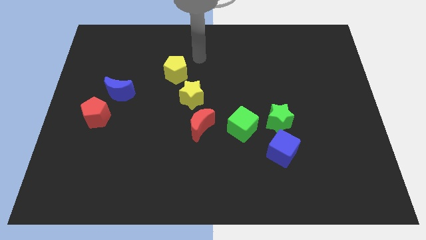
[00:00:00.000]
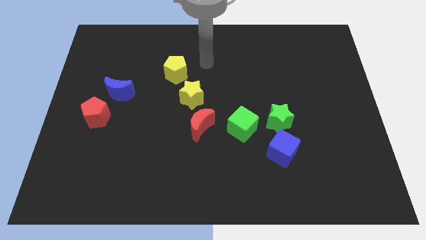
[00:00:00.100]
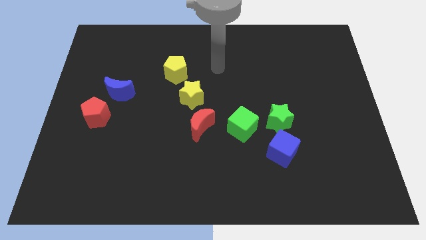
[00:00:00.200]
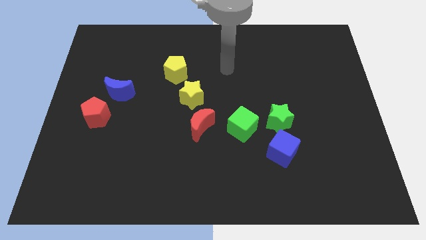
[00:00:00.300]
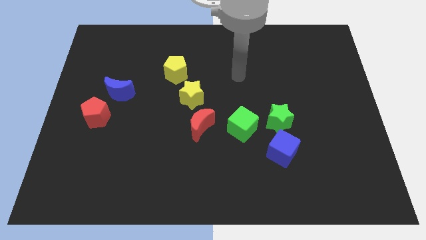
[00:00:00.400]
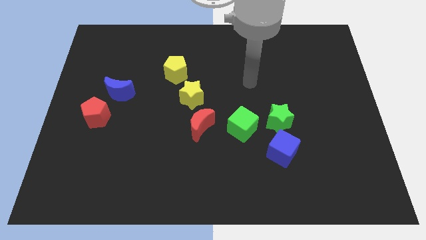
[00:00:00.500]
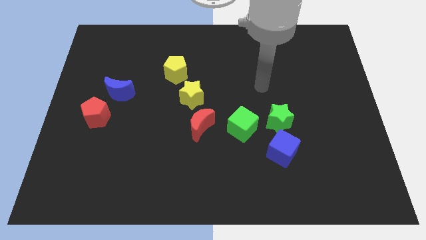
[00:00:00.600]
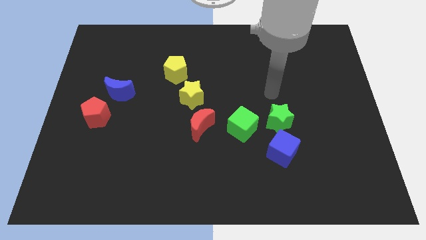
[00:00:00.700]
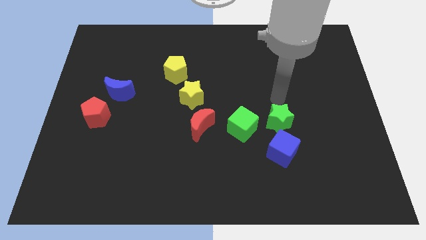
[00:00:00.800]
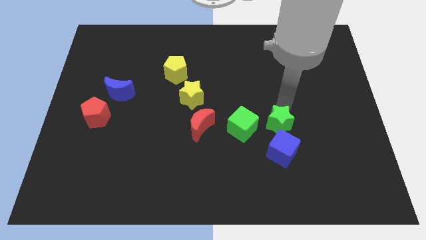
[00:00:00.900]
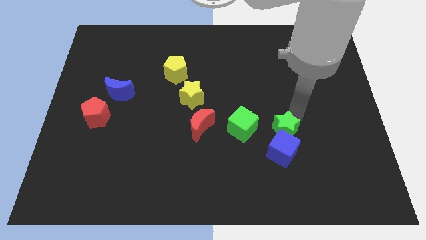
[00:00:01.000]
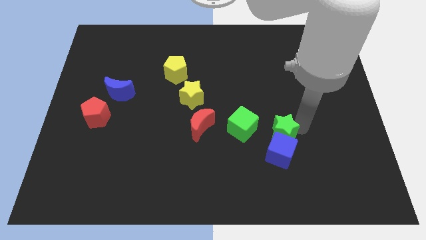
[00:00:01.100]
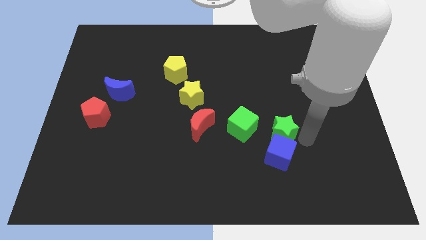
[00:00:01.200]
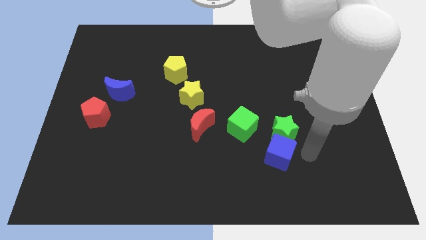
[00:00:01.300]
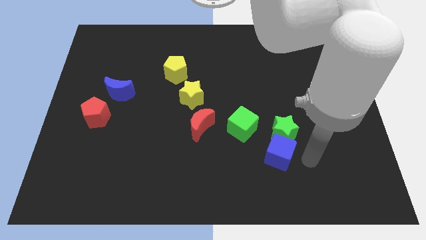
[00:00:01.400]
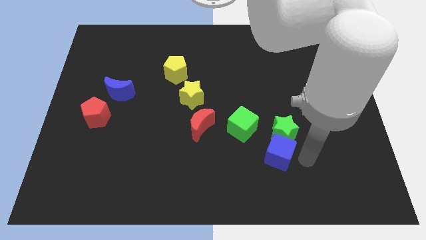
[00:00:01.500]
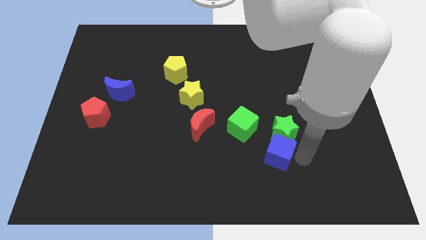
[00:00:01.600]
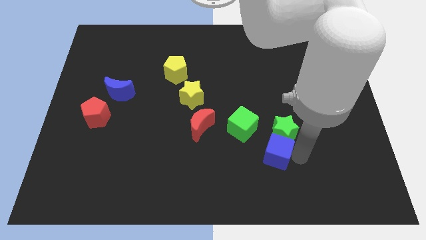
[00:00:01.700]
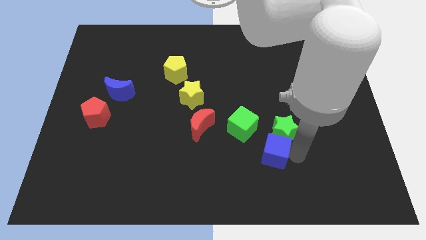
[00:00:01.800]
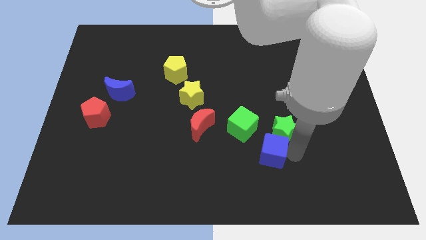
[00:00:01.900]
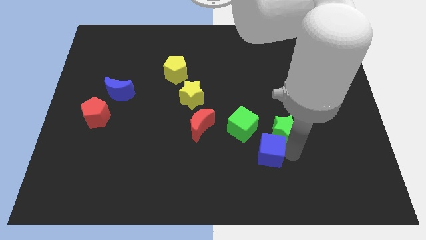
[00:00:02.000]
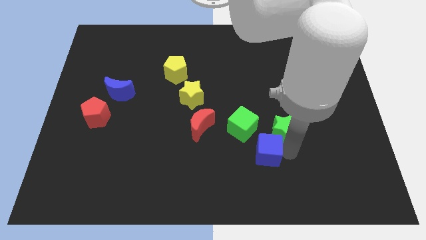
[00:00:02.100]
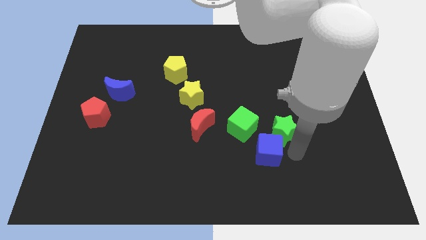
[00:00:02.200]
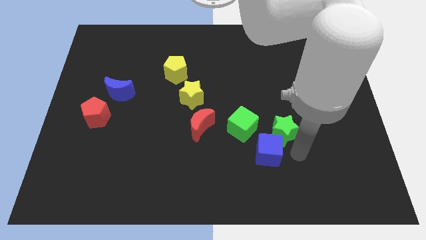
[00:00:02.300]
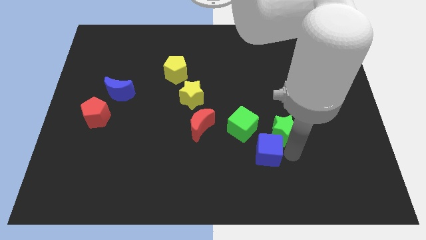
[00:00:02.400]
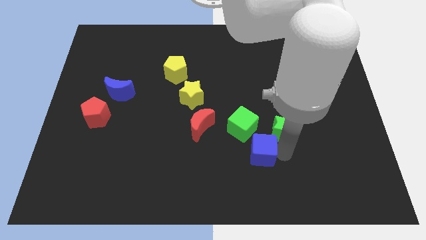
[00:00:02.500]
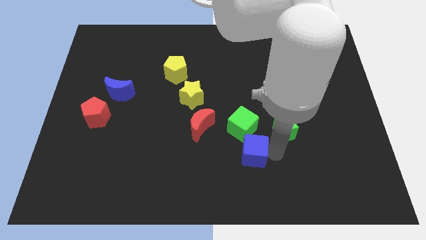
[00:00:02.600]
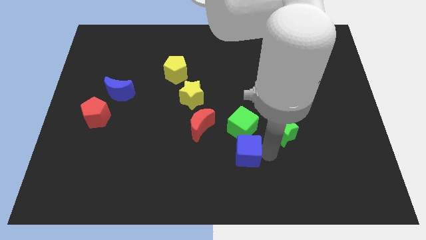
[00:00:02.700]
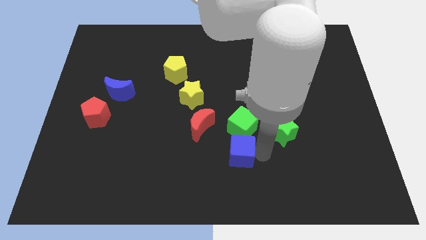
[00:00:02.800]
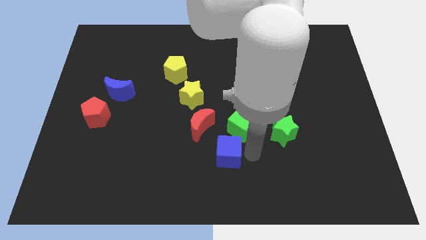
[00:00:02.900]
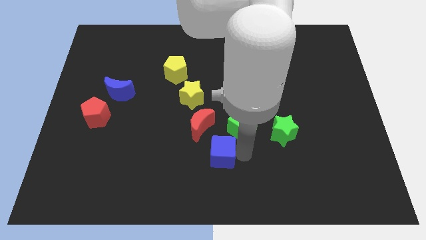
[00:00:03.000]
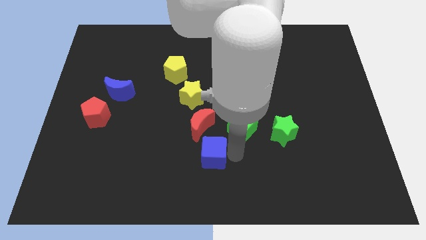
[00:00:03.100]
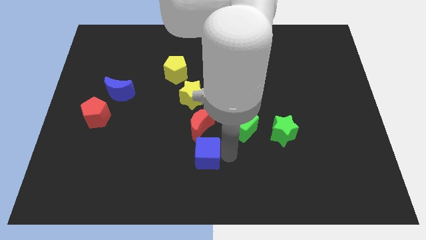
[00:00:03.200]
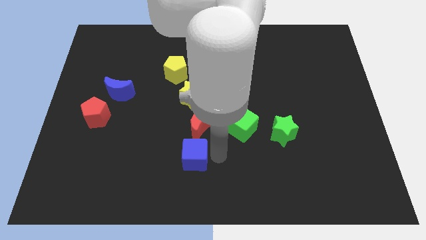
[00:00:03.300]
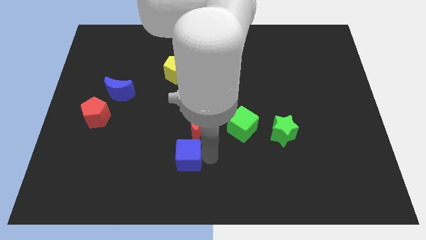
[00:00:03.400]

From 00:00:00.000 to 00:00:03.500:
move the blue cube to the left

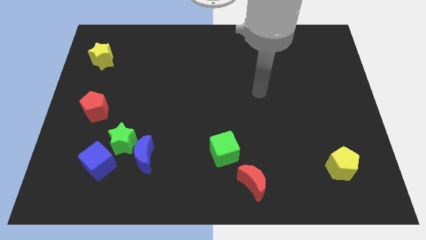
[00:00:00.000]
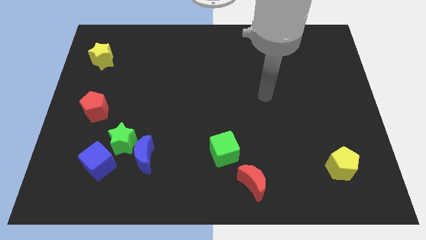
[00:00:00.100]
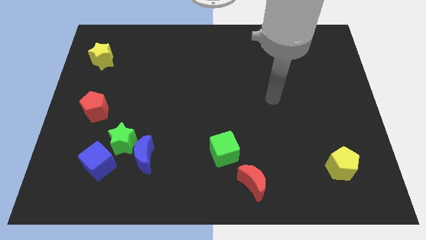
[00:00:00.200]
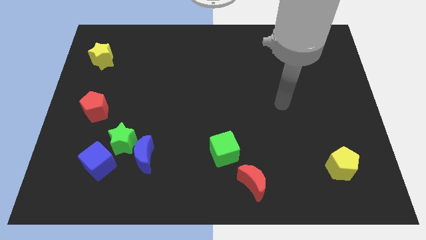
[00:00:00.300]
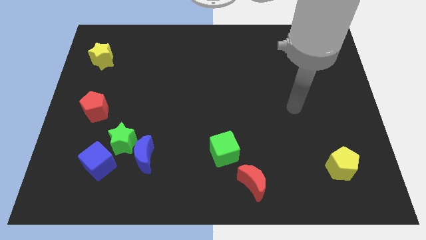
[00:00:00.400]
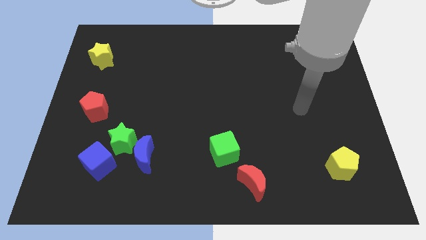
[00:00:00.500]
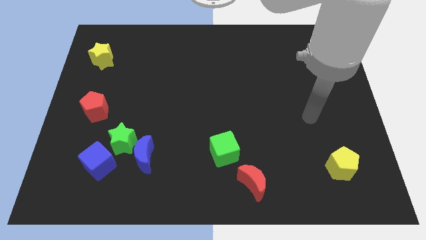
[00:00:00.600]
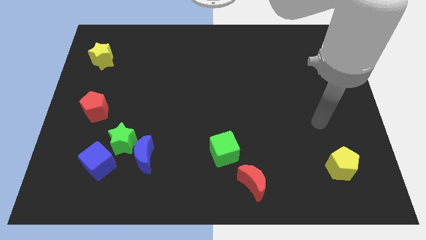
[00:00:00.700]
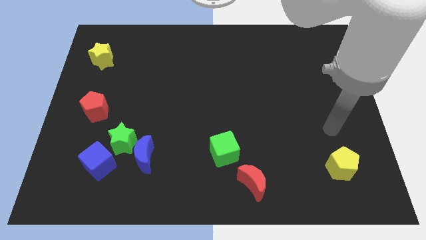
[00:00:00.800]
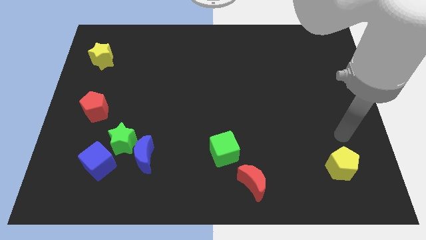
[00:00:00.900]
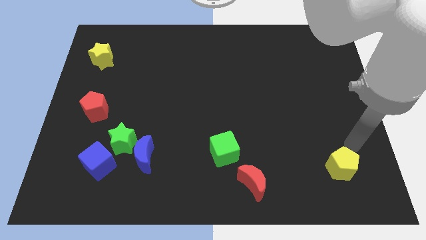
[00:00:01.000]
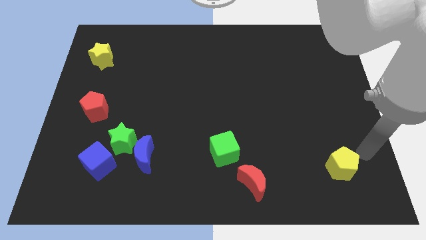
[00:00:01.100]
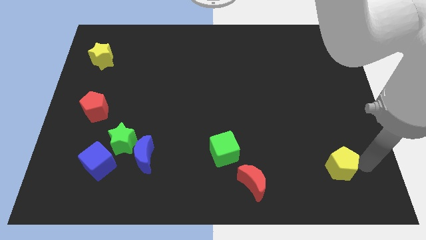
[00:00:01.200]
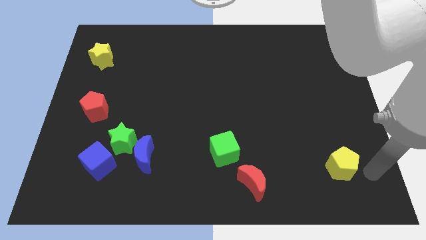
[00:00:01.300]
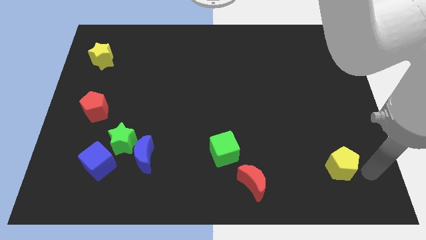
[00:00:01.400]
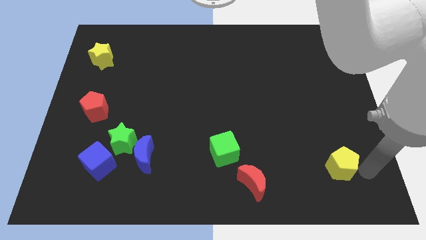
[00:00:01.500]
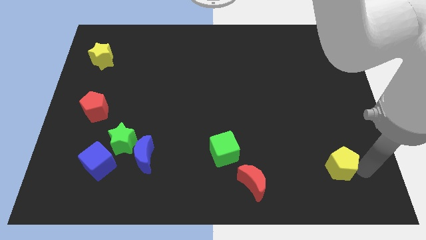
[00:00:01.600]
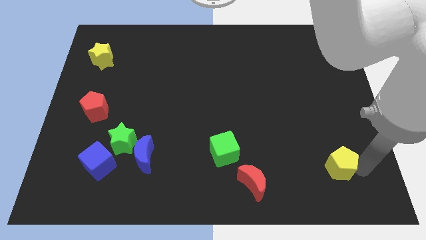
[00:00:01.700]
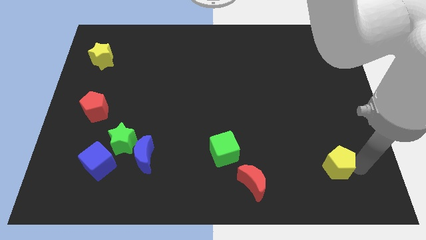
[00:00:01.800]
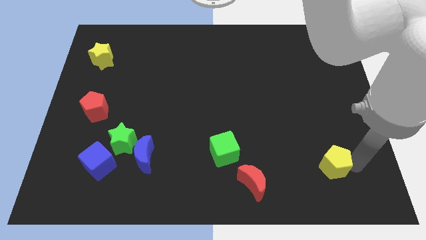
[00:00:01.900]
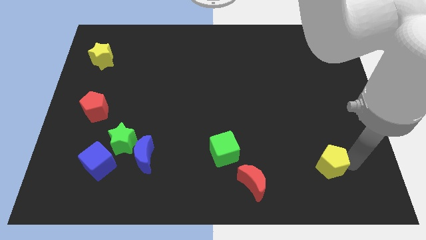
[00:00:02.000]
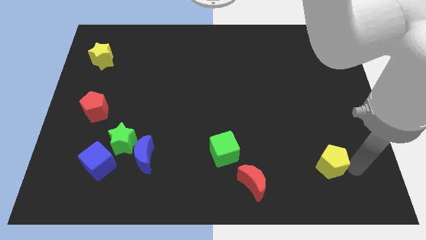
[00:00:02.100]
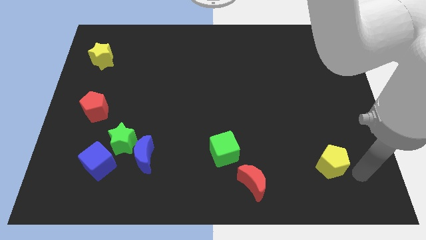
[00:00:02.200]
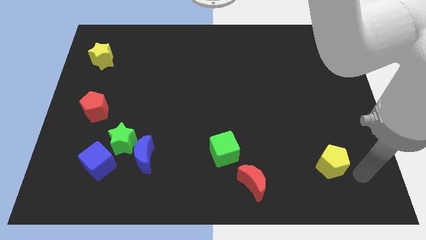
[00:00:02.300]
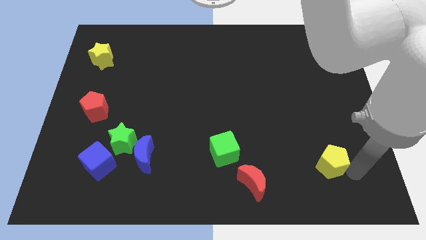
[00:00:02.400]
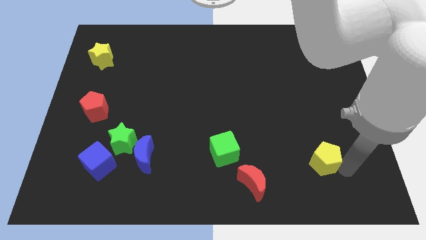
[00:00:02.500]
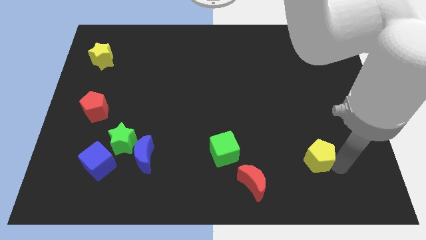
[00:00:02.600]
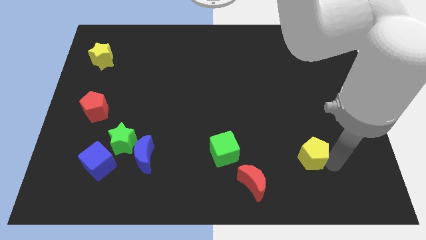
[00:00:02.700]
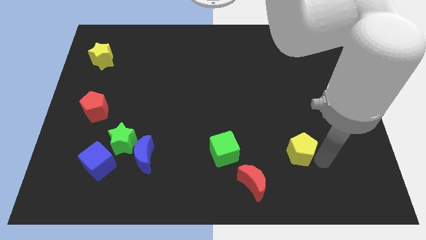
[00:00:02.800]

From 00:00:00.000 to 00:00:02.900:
move the yellow pentagon diagonally up and to the left a little

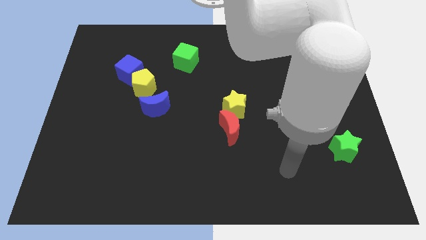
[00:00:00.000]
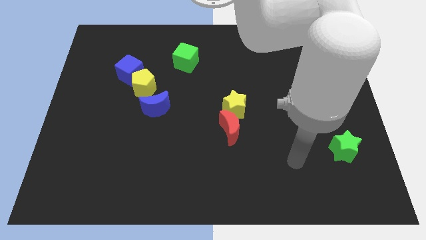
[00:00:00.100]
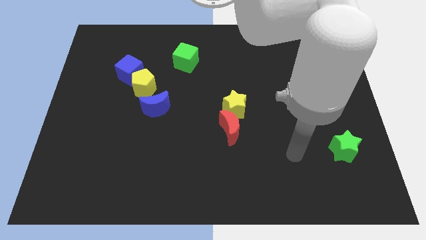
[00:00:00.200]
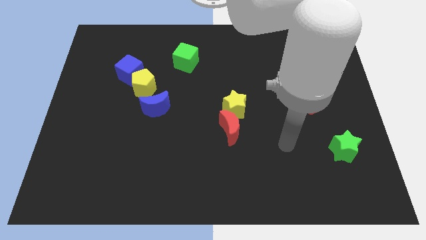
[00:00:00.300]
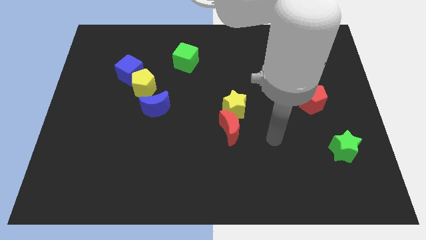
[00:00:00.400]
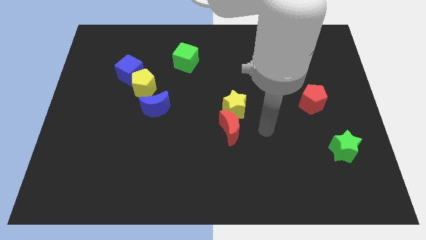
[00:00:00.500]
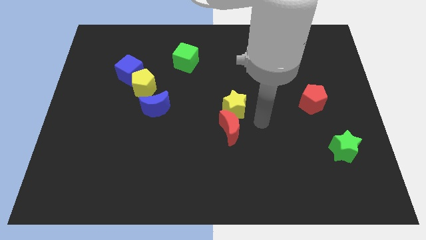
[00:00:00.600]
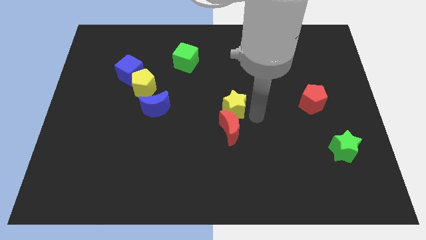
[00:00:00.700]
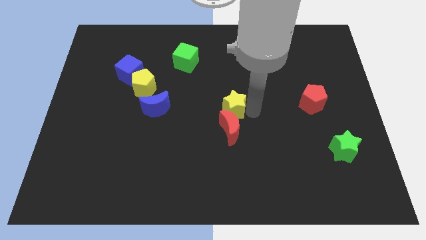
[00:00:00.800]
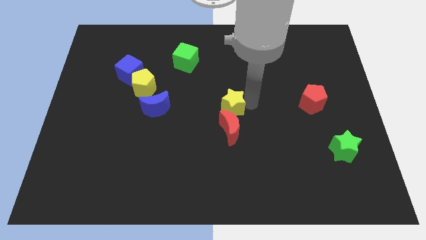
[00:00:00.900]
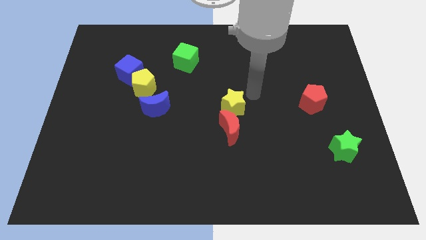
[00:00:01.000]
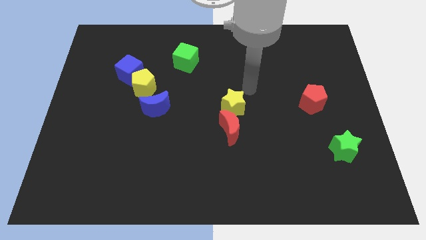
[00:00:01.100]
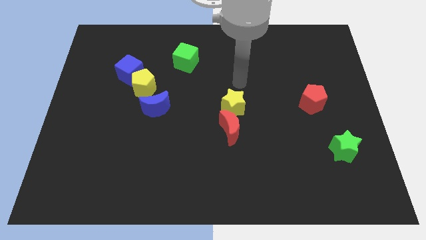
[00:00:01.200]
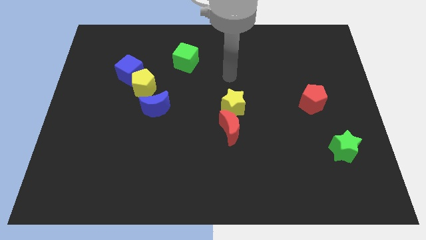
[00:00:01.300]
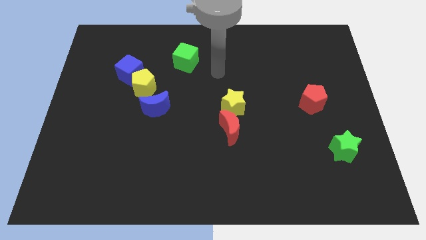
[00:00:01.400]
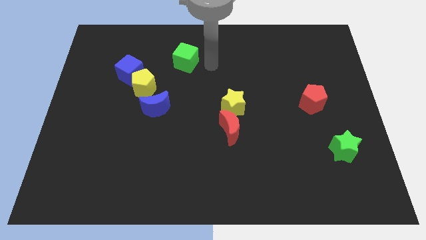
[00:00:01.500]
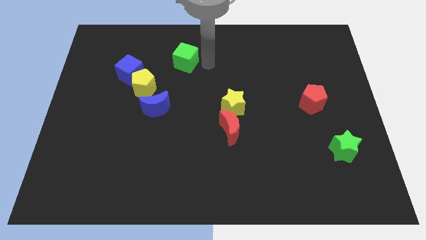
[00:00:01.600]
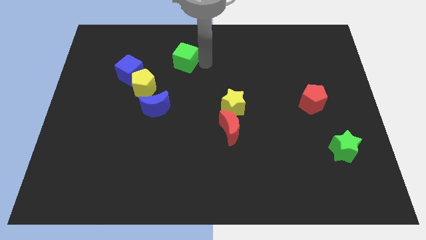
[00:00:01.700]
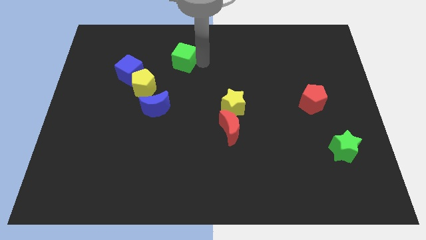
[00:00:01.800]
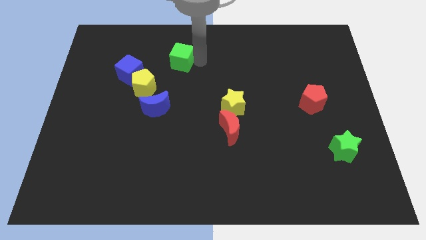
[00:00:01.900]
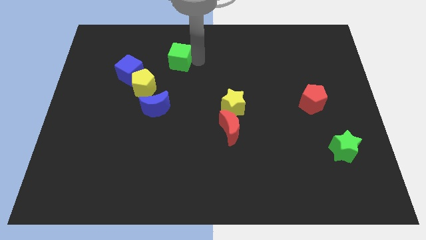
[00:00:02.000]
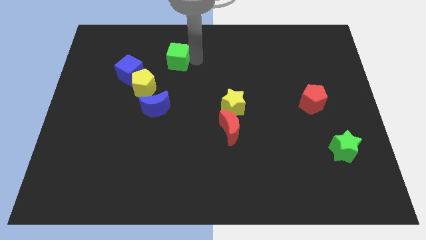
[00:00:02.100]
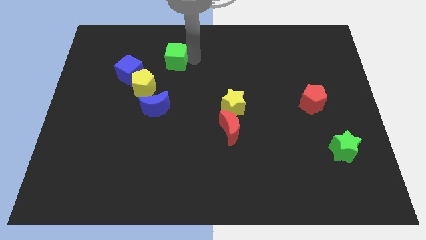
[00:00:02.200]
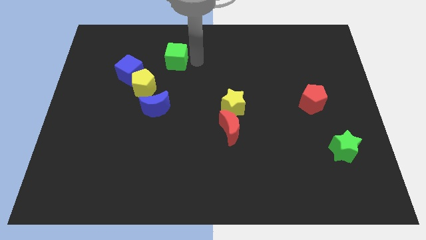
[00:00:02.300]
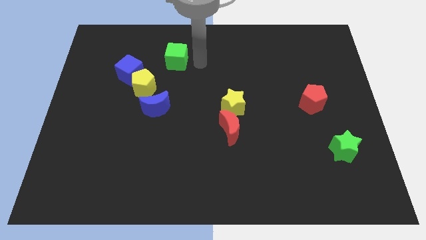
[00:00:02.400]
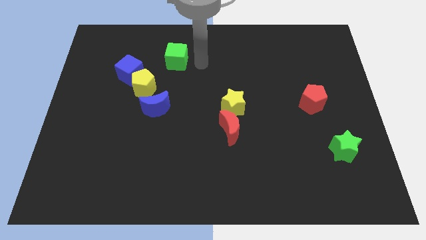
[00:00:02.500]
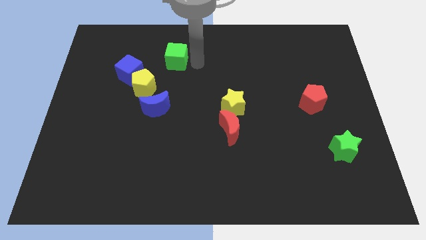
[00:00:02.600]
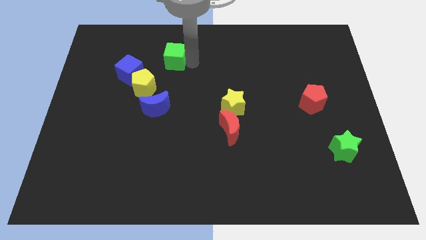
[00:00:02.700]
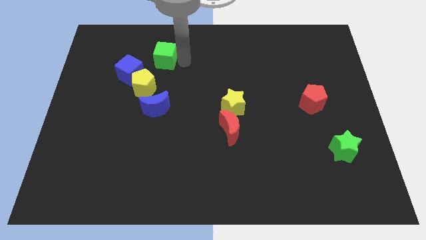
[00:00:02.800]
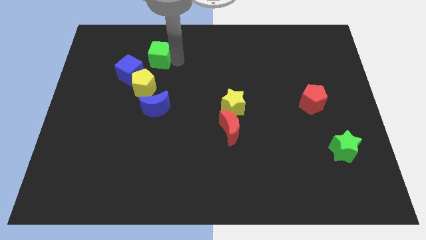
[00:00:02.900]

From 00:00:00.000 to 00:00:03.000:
slightly move the green cube left
